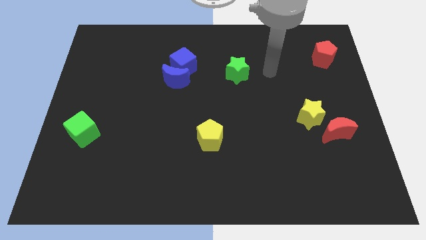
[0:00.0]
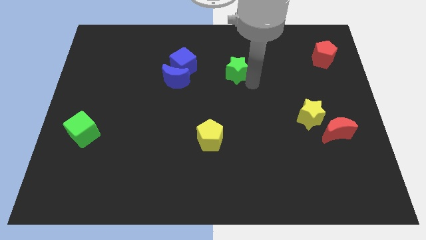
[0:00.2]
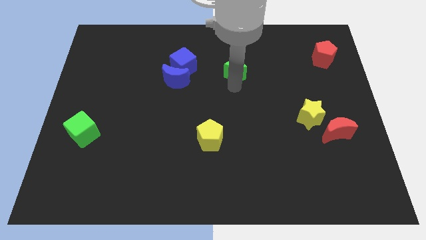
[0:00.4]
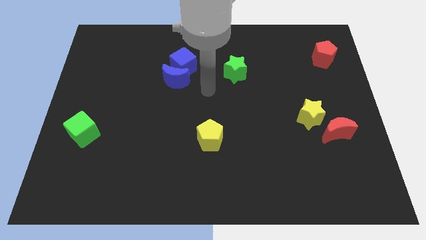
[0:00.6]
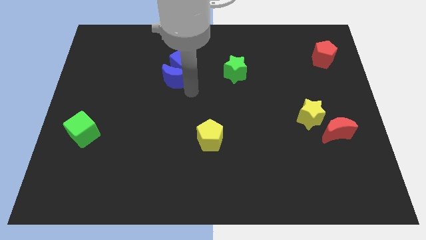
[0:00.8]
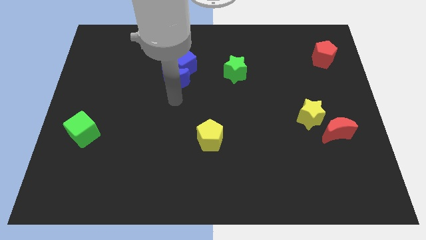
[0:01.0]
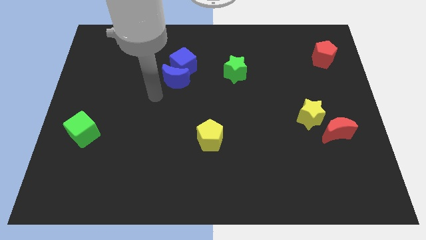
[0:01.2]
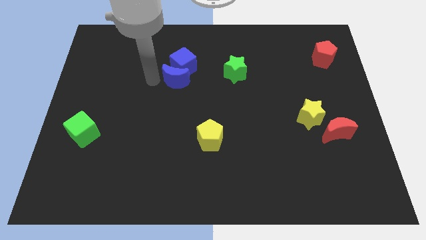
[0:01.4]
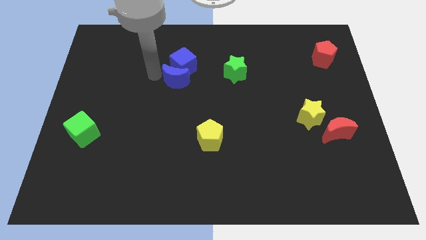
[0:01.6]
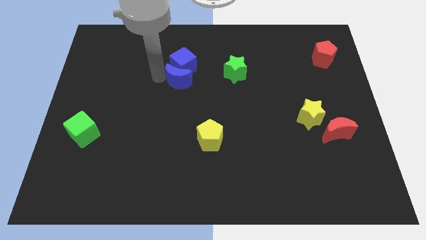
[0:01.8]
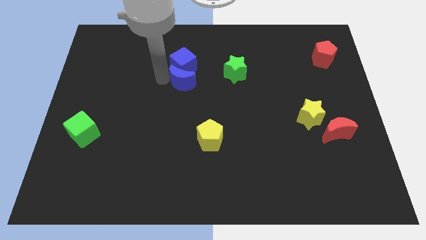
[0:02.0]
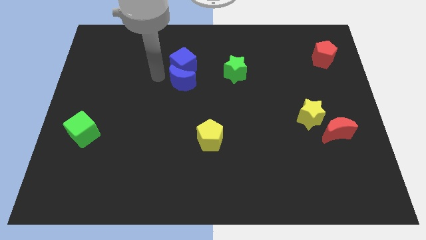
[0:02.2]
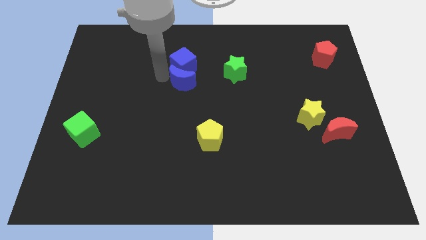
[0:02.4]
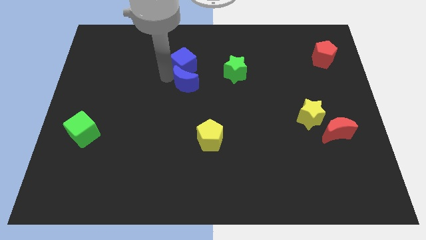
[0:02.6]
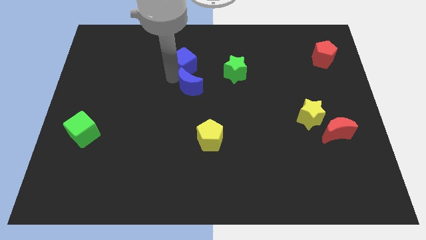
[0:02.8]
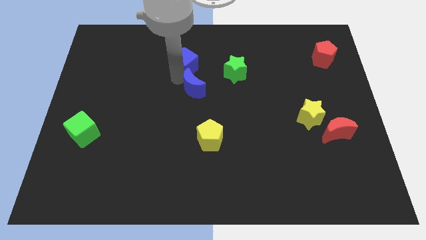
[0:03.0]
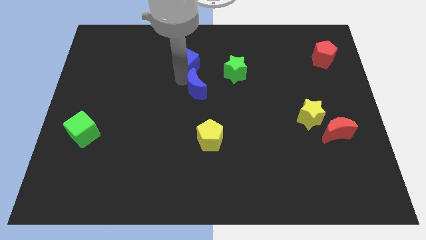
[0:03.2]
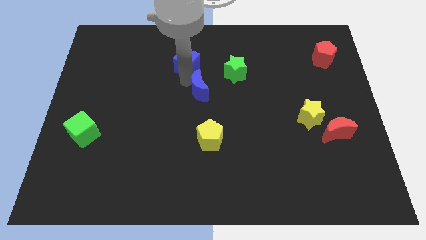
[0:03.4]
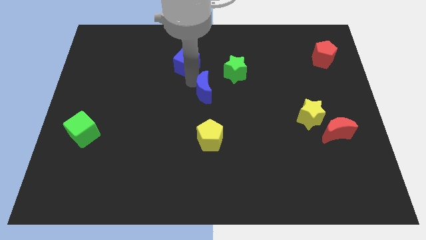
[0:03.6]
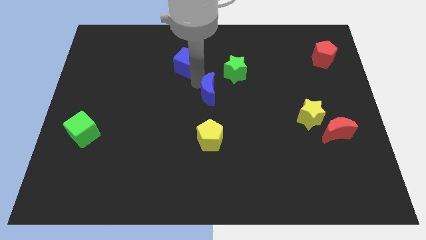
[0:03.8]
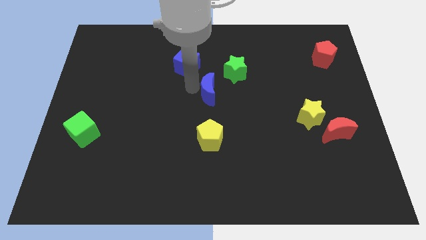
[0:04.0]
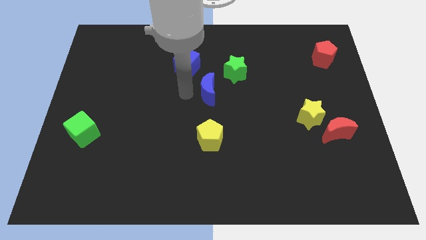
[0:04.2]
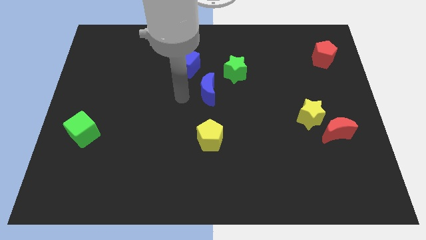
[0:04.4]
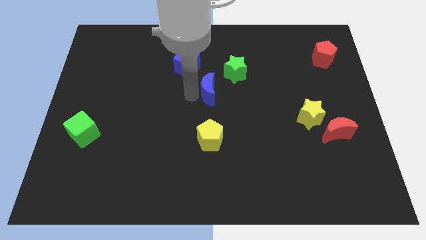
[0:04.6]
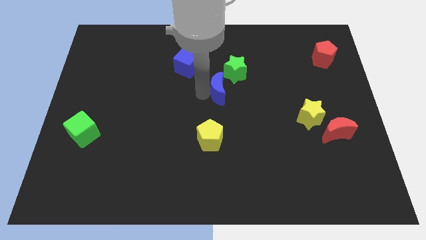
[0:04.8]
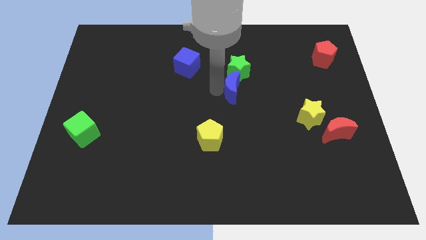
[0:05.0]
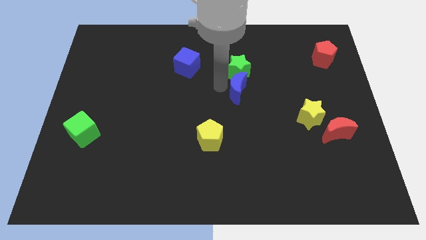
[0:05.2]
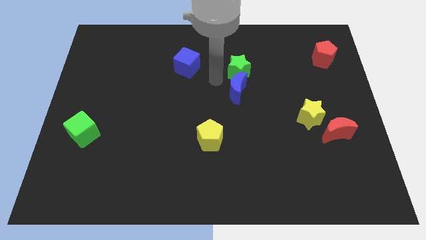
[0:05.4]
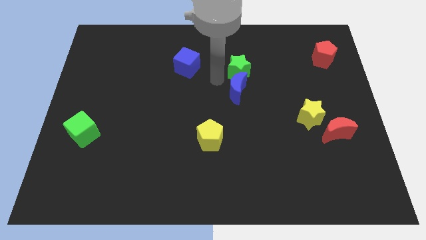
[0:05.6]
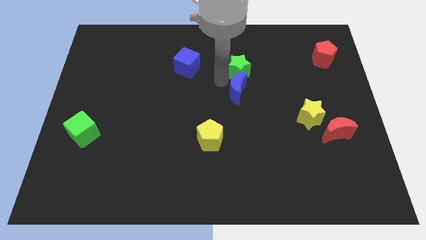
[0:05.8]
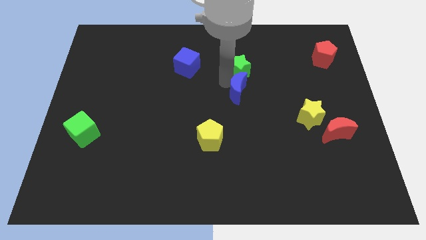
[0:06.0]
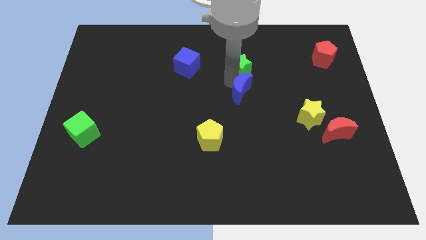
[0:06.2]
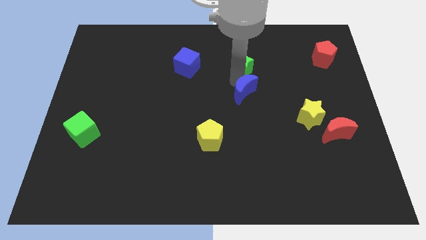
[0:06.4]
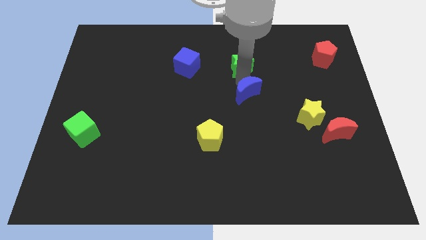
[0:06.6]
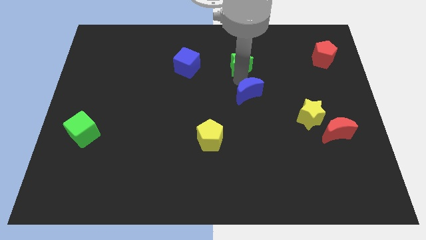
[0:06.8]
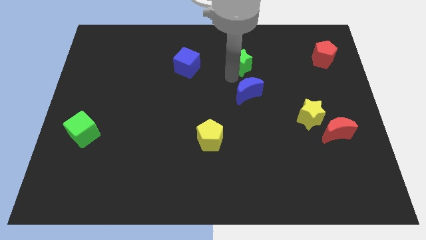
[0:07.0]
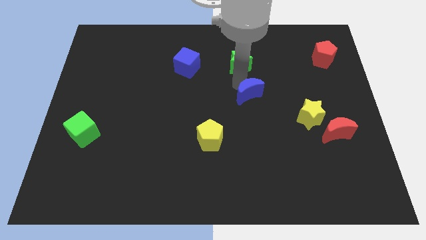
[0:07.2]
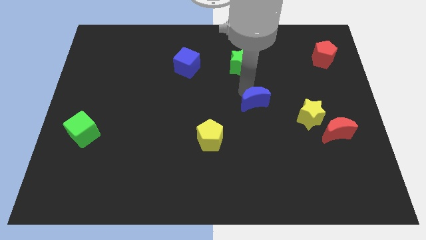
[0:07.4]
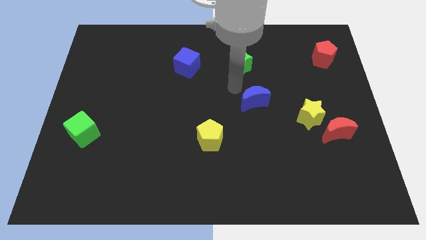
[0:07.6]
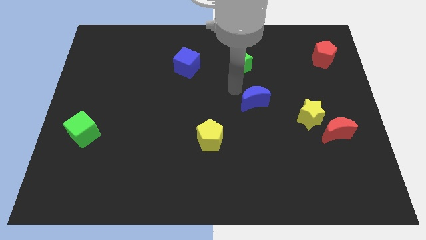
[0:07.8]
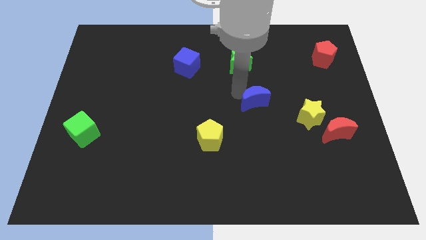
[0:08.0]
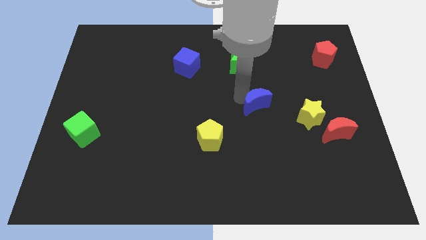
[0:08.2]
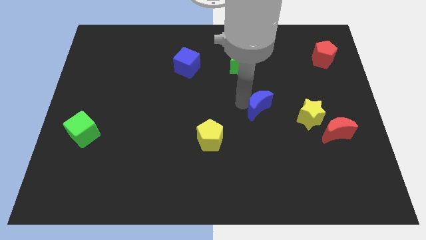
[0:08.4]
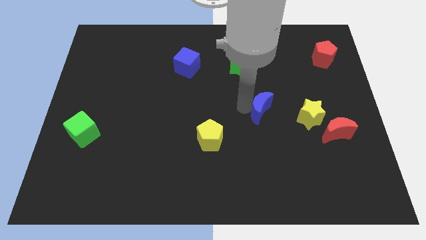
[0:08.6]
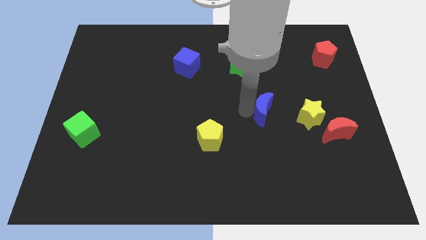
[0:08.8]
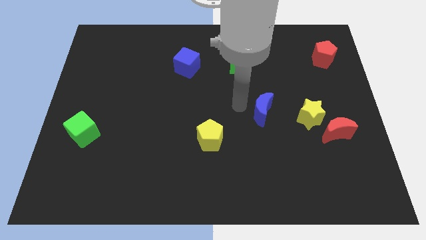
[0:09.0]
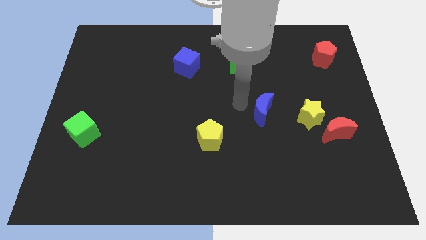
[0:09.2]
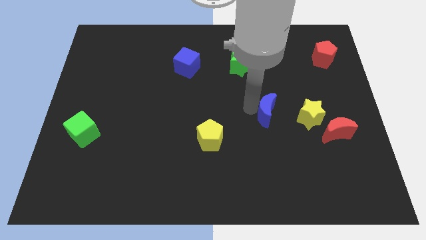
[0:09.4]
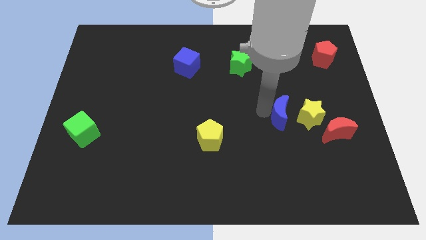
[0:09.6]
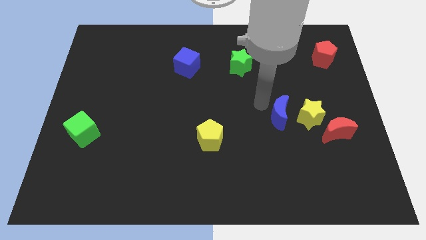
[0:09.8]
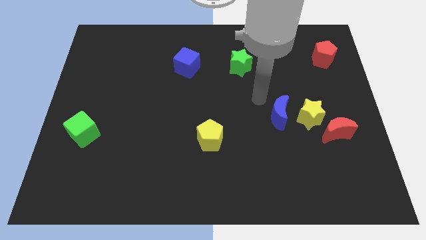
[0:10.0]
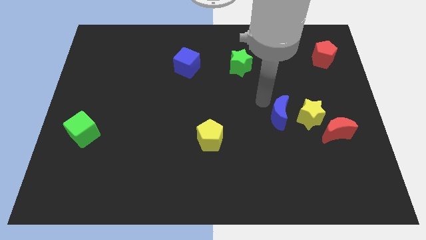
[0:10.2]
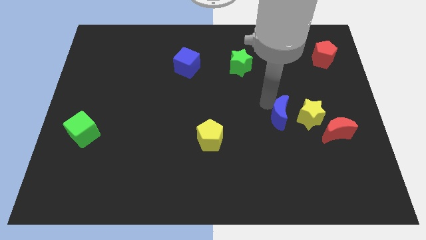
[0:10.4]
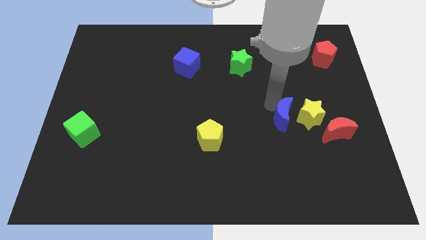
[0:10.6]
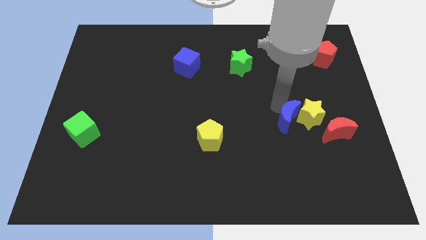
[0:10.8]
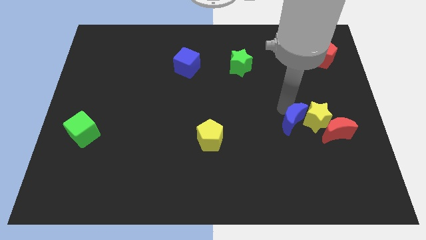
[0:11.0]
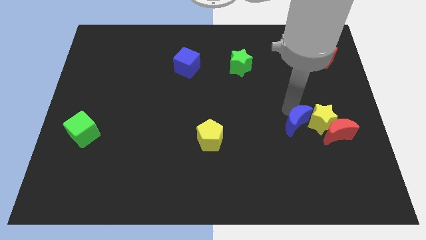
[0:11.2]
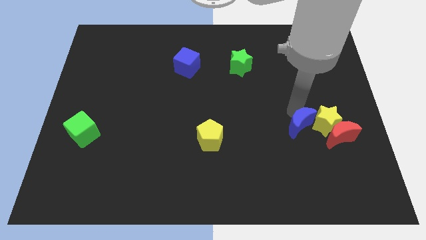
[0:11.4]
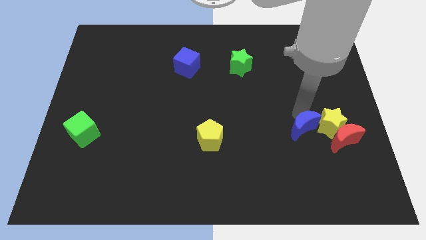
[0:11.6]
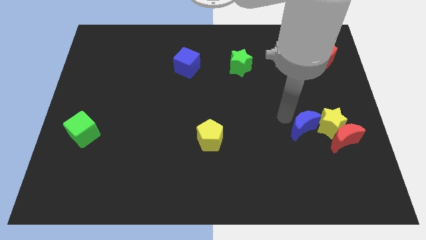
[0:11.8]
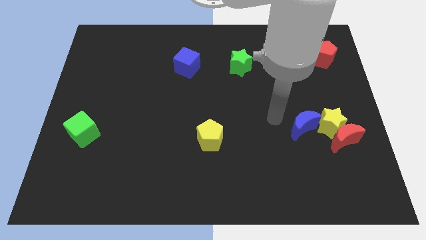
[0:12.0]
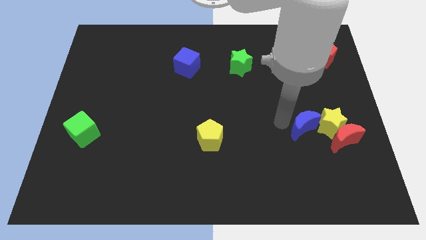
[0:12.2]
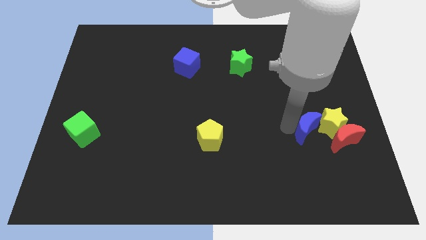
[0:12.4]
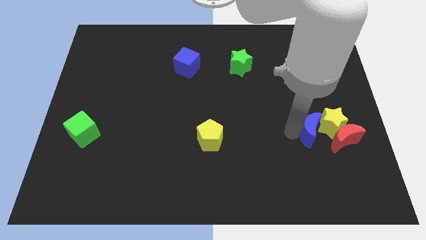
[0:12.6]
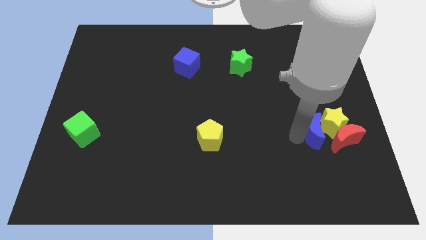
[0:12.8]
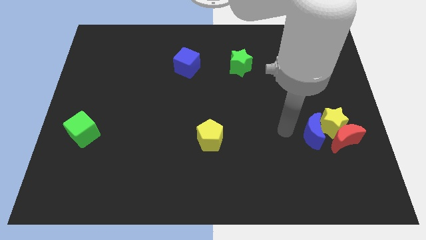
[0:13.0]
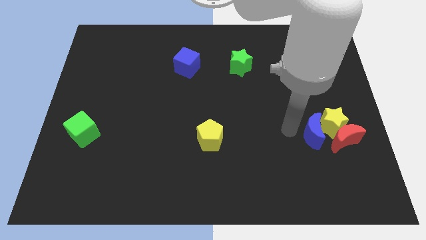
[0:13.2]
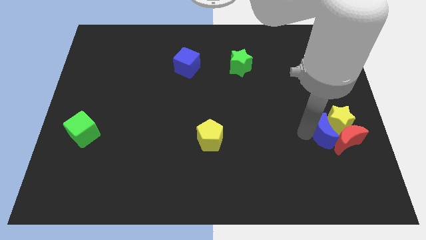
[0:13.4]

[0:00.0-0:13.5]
push the blue moon towards the red moon

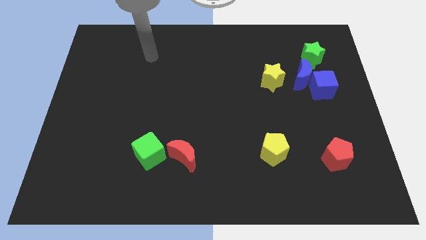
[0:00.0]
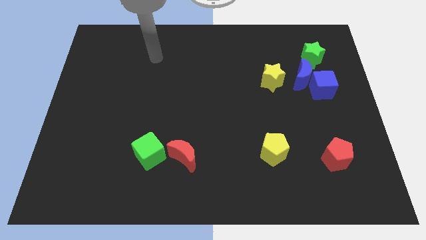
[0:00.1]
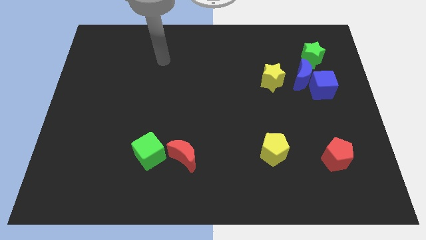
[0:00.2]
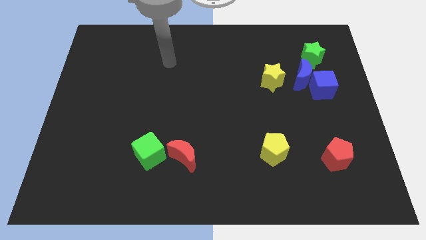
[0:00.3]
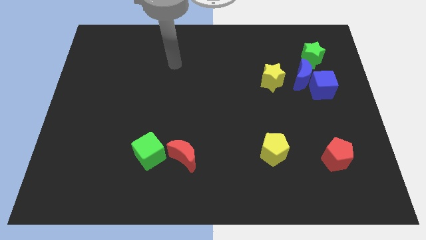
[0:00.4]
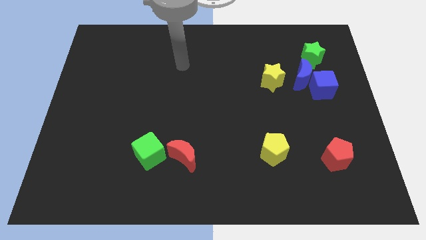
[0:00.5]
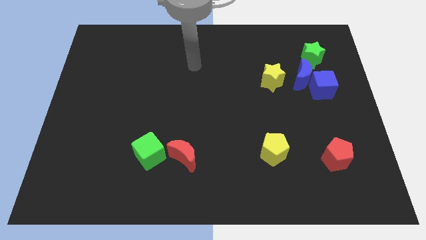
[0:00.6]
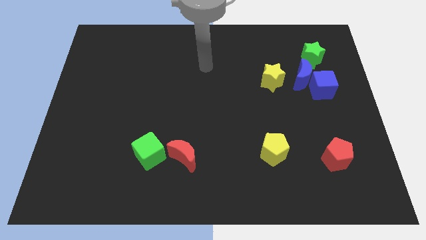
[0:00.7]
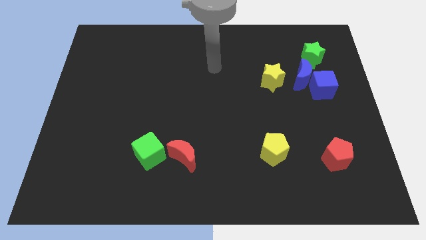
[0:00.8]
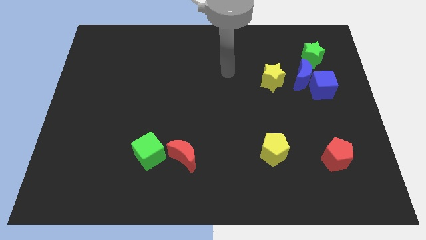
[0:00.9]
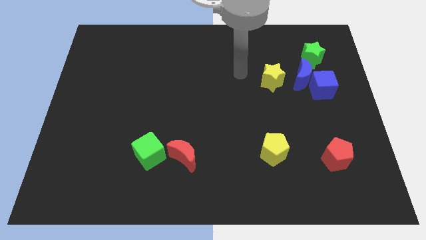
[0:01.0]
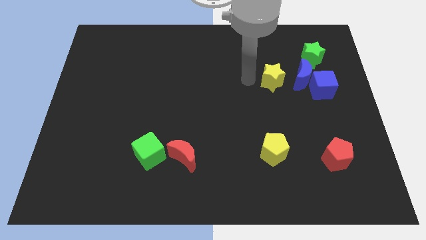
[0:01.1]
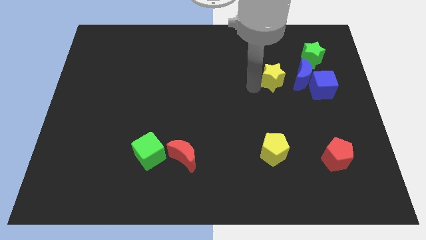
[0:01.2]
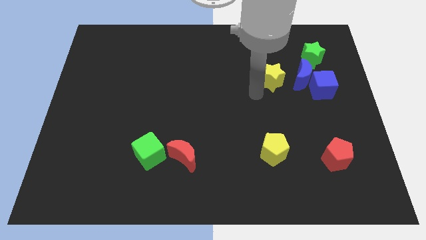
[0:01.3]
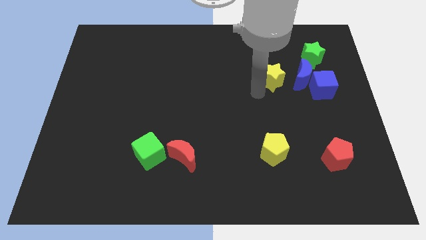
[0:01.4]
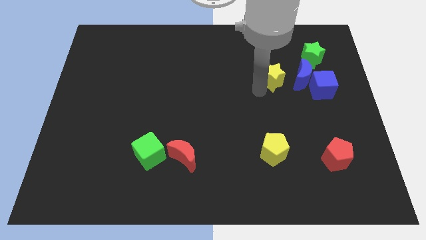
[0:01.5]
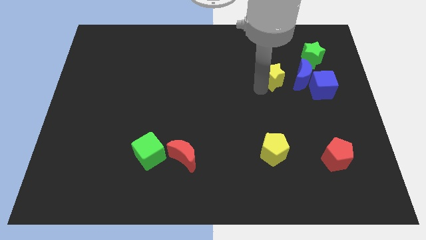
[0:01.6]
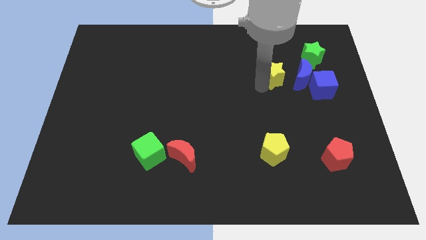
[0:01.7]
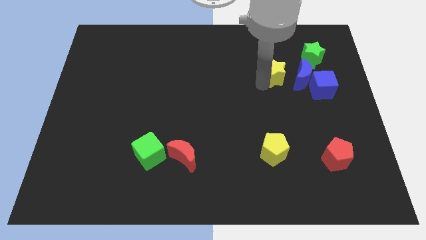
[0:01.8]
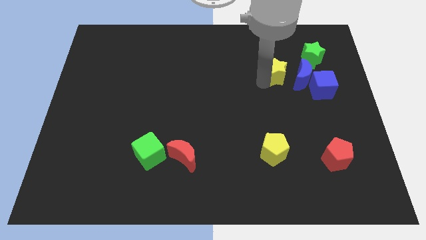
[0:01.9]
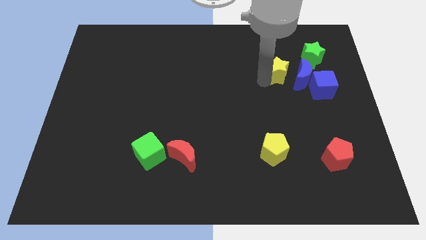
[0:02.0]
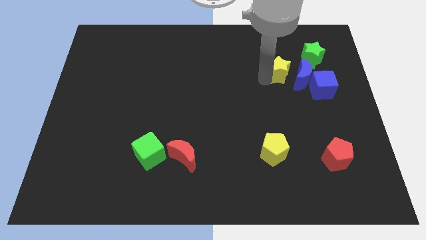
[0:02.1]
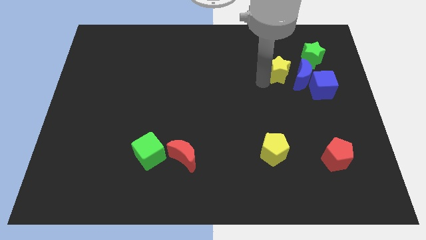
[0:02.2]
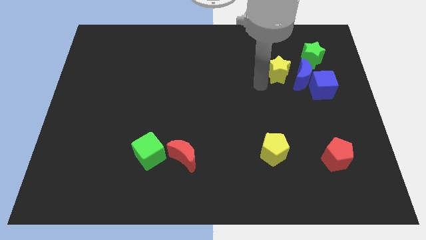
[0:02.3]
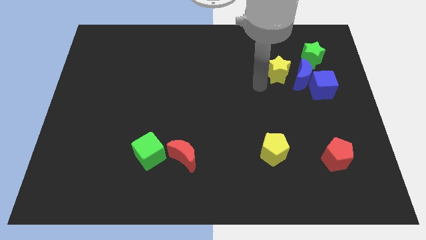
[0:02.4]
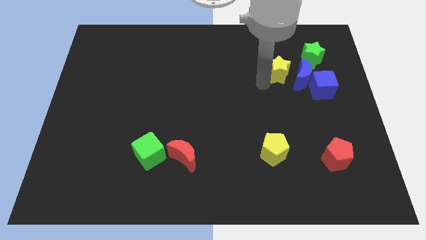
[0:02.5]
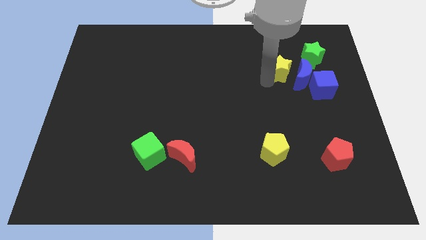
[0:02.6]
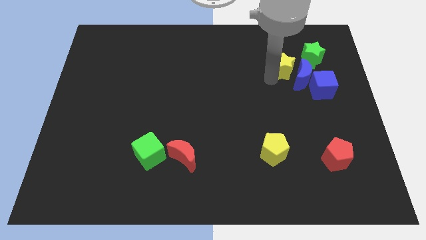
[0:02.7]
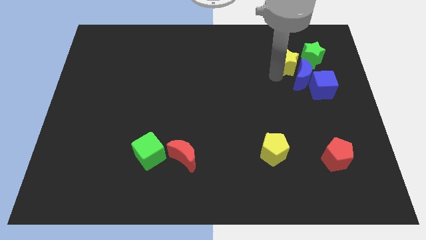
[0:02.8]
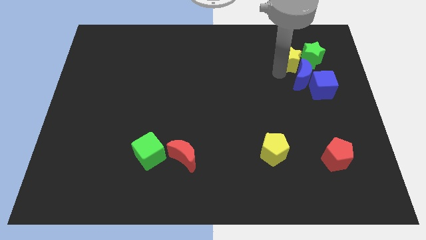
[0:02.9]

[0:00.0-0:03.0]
put the yellow star towards the green star
